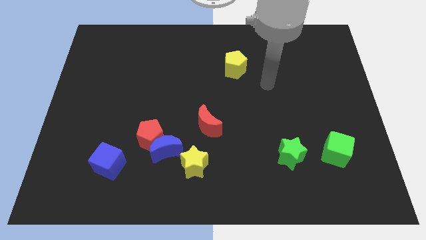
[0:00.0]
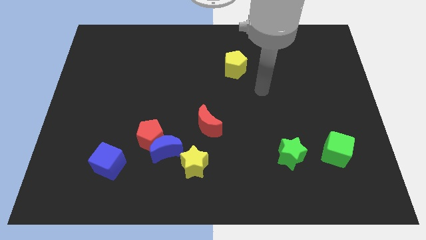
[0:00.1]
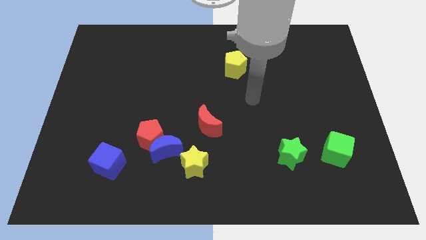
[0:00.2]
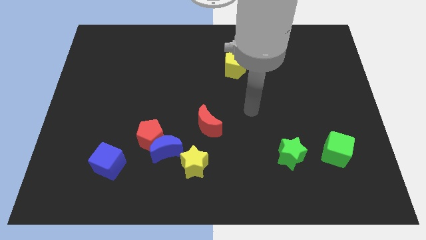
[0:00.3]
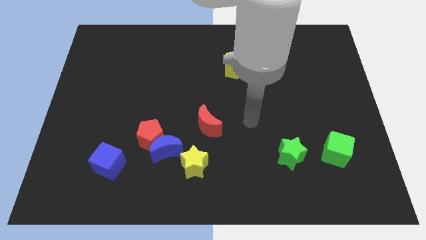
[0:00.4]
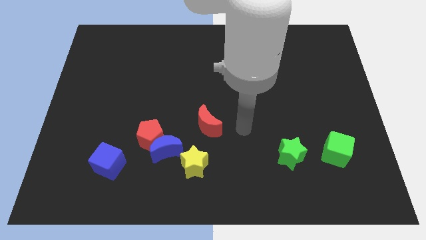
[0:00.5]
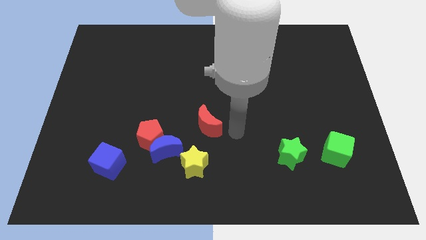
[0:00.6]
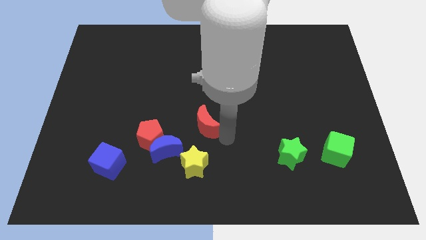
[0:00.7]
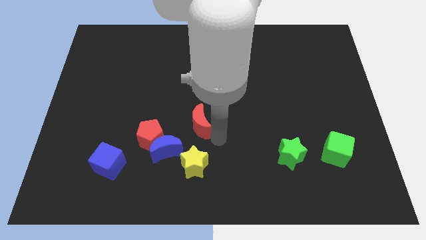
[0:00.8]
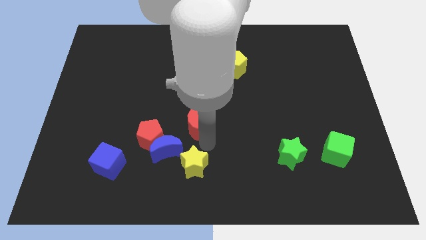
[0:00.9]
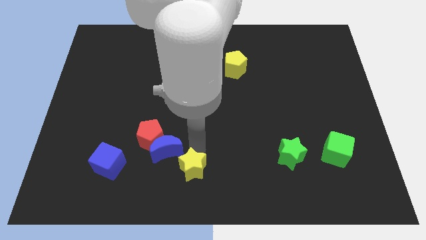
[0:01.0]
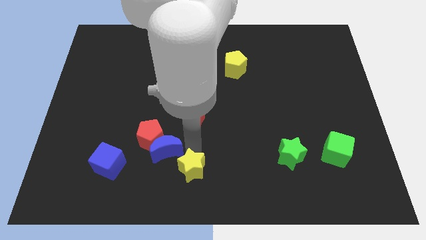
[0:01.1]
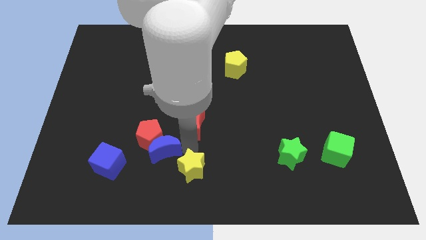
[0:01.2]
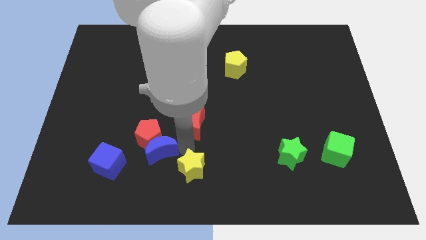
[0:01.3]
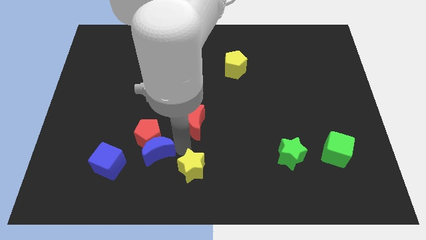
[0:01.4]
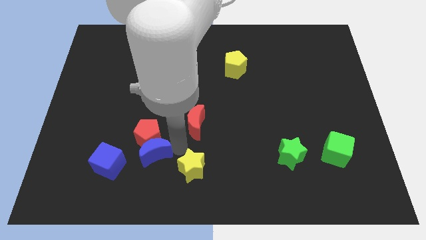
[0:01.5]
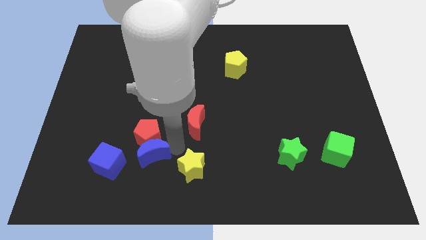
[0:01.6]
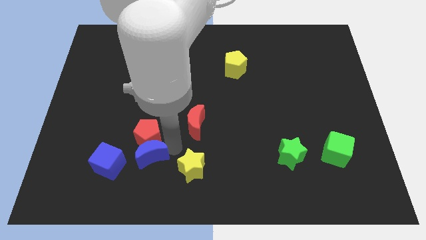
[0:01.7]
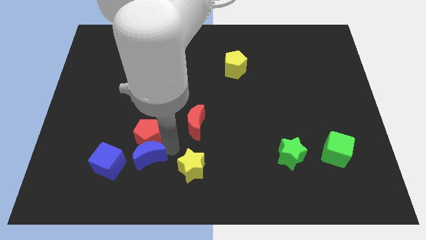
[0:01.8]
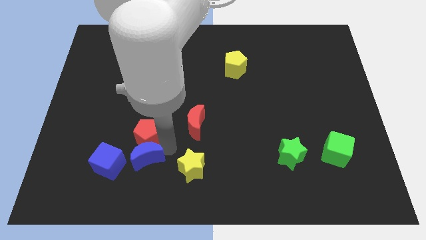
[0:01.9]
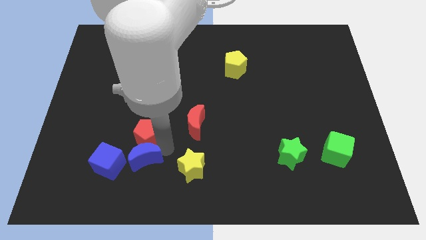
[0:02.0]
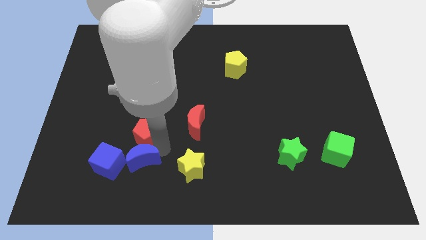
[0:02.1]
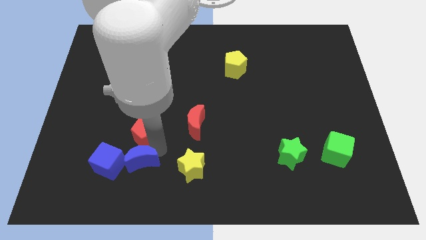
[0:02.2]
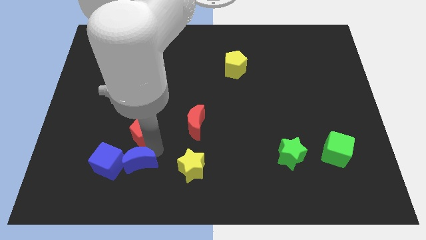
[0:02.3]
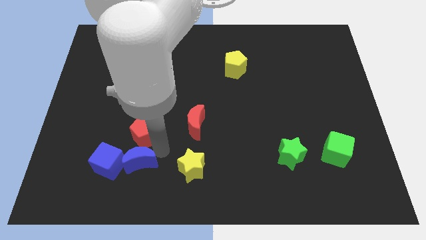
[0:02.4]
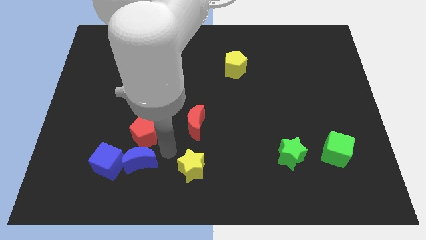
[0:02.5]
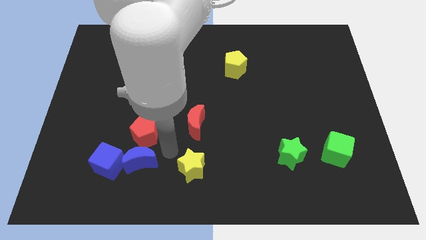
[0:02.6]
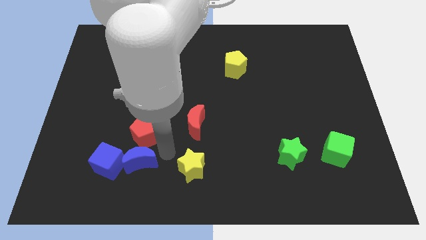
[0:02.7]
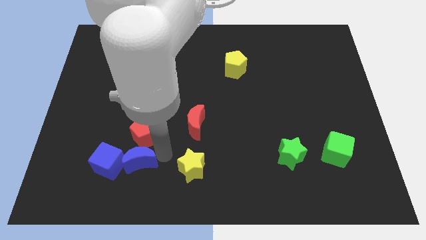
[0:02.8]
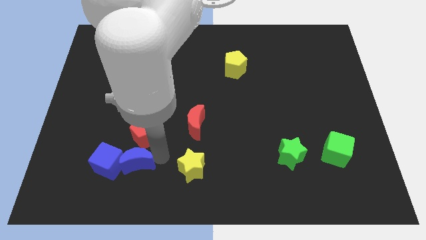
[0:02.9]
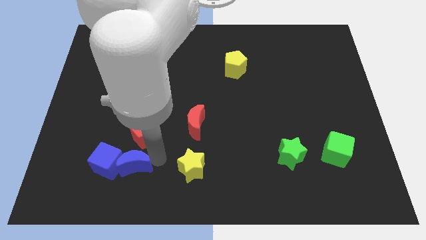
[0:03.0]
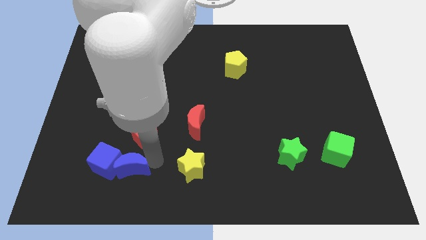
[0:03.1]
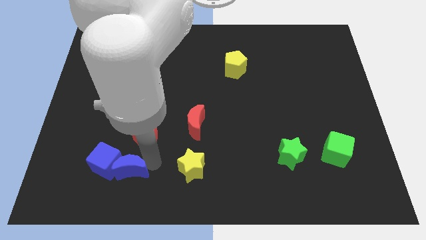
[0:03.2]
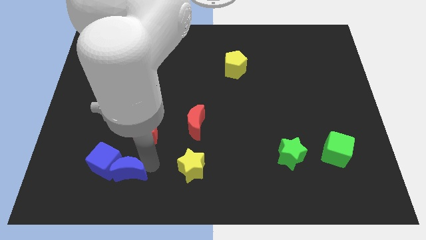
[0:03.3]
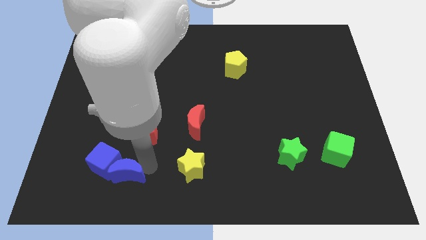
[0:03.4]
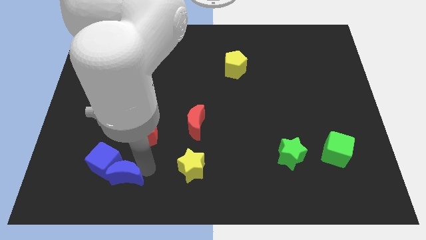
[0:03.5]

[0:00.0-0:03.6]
move the blue moon away from the red pentagon and yellow star

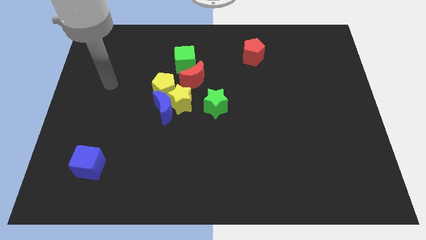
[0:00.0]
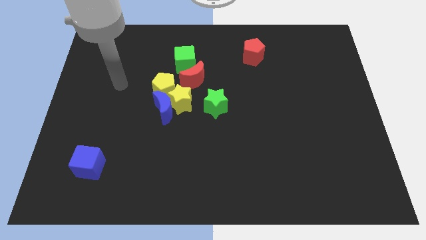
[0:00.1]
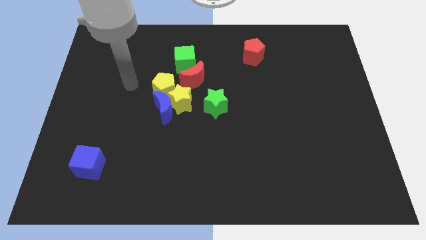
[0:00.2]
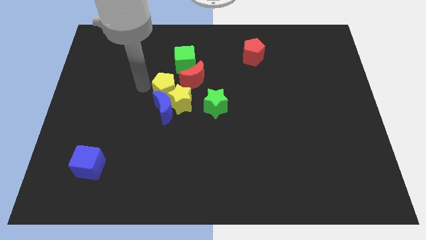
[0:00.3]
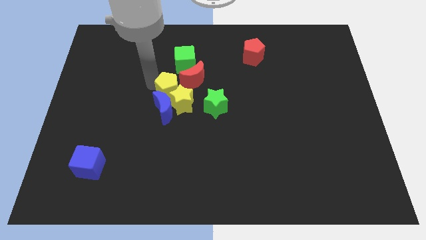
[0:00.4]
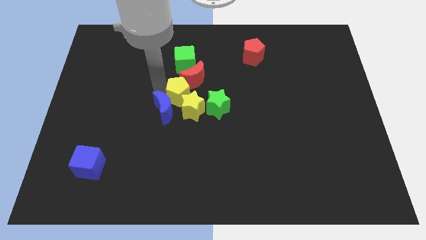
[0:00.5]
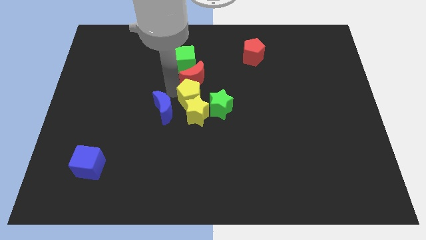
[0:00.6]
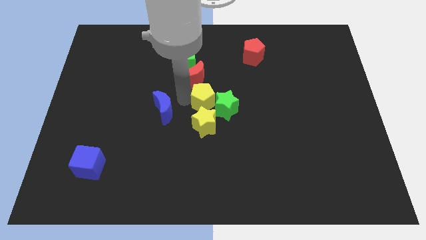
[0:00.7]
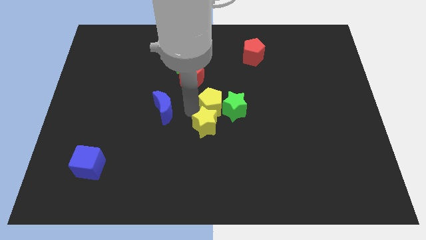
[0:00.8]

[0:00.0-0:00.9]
move the blue moon away from the yellow star and yellow pentagon

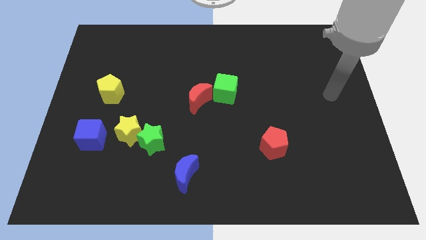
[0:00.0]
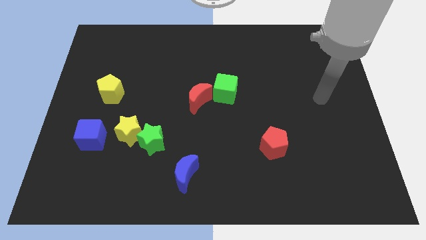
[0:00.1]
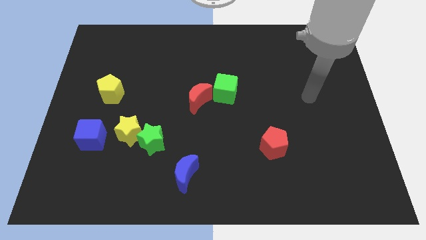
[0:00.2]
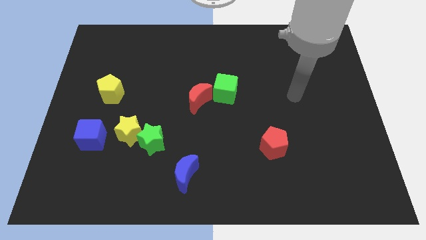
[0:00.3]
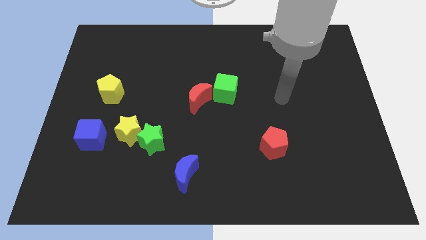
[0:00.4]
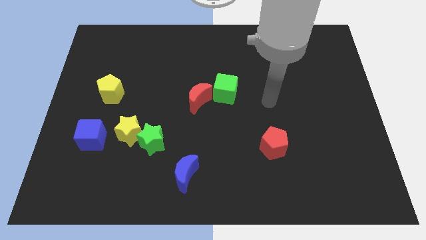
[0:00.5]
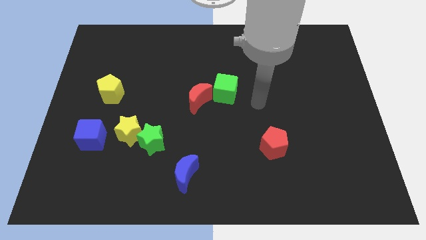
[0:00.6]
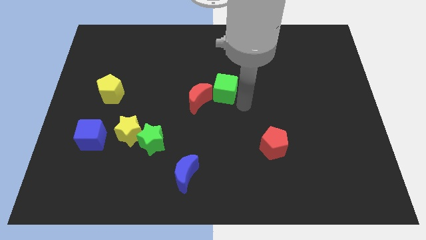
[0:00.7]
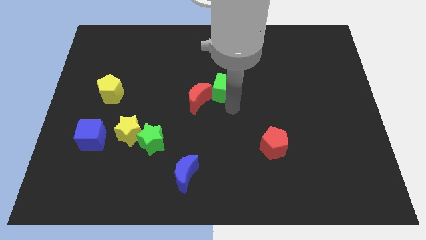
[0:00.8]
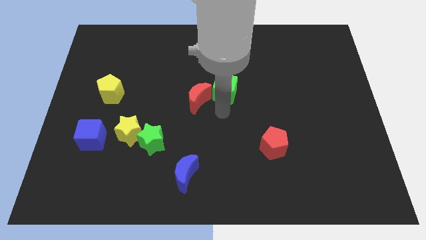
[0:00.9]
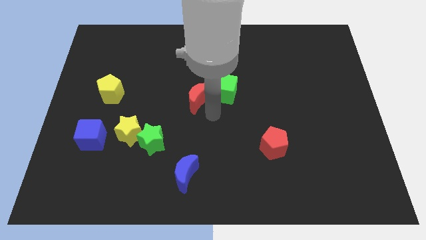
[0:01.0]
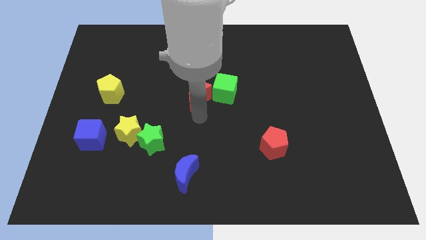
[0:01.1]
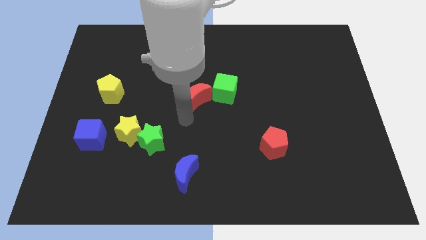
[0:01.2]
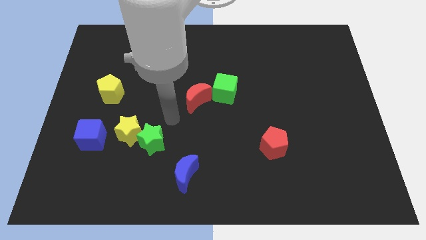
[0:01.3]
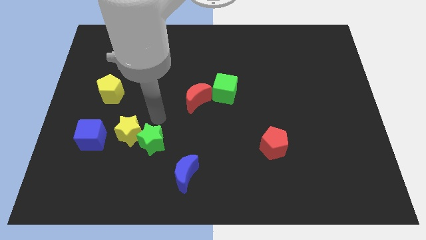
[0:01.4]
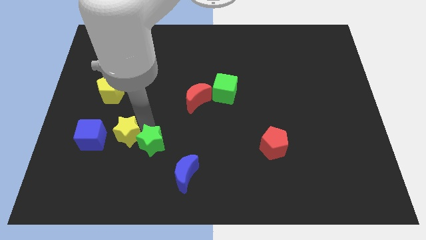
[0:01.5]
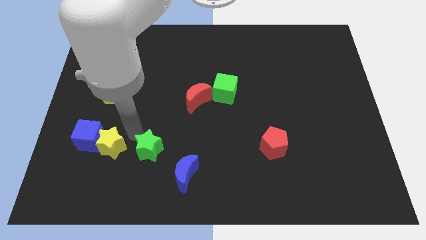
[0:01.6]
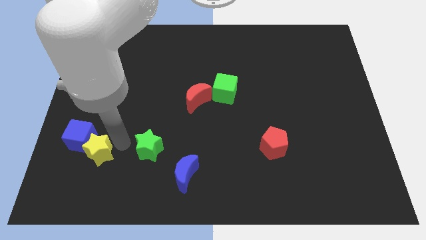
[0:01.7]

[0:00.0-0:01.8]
pull the green star apart from the yellow star

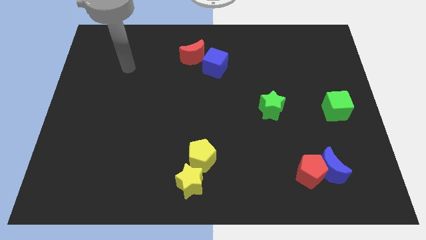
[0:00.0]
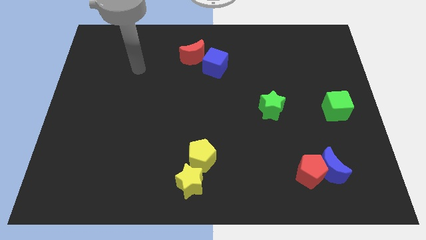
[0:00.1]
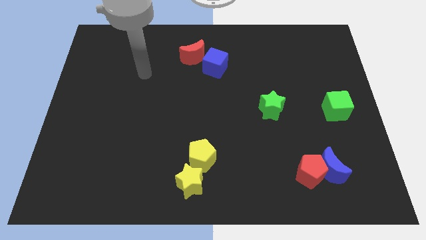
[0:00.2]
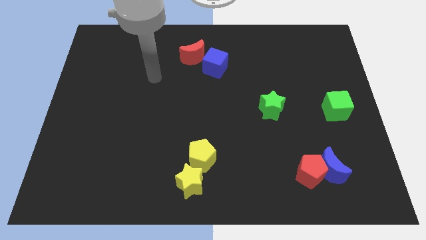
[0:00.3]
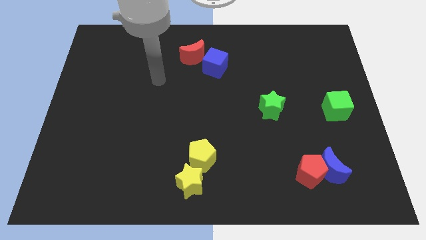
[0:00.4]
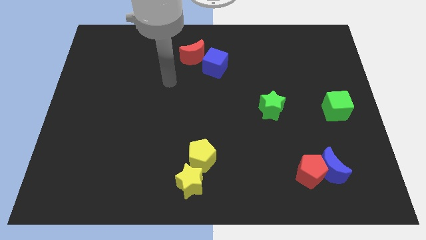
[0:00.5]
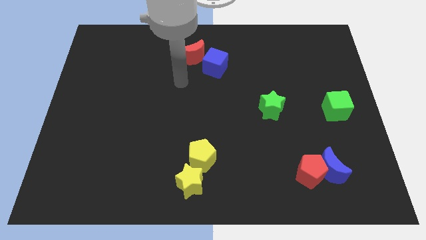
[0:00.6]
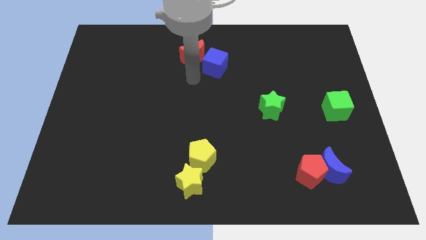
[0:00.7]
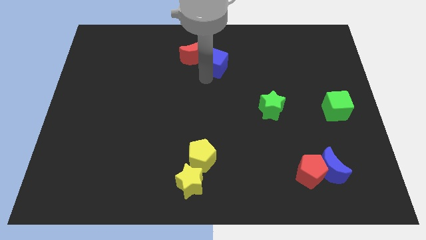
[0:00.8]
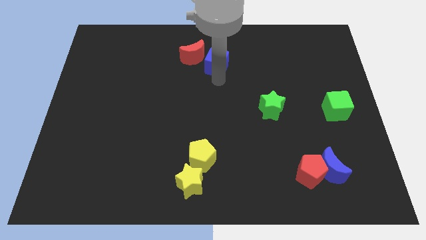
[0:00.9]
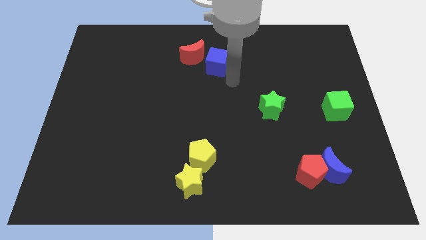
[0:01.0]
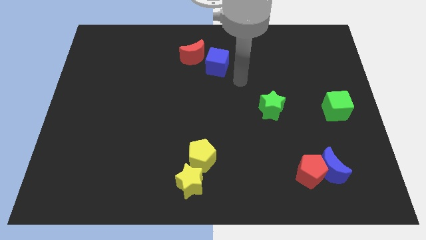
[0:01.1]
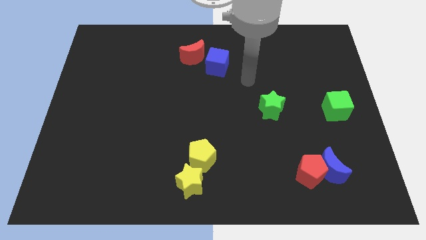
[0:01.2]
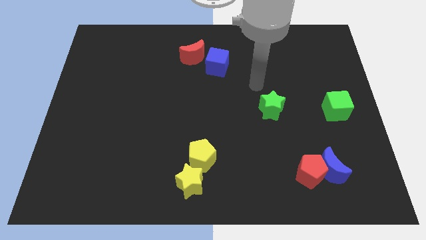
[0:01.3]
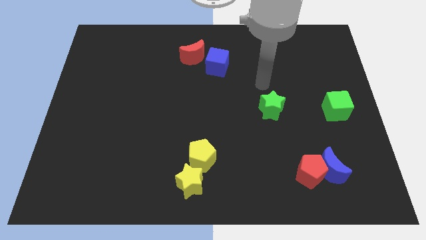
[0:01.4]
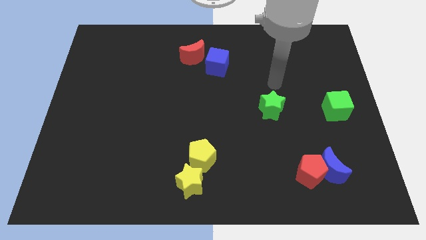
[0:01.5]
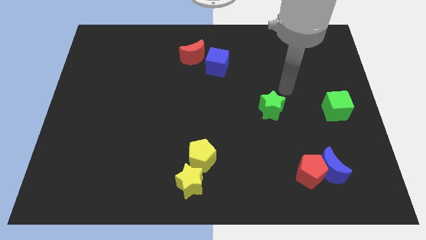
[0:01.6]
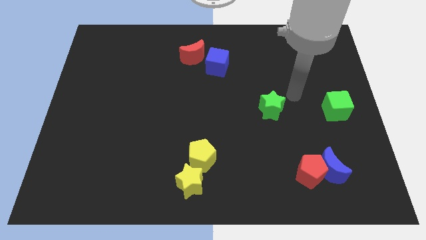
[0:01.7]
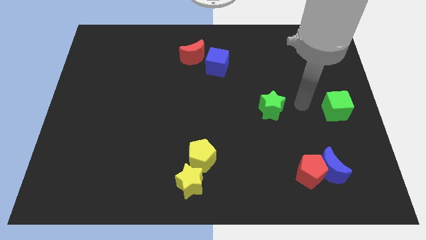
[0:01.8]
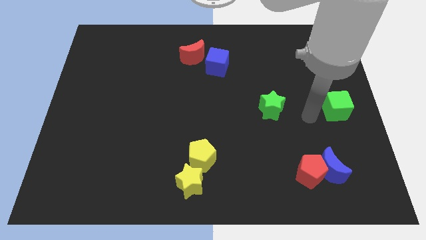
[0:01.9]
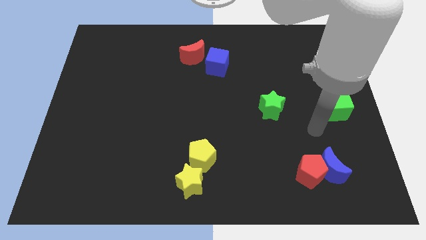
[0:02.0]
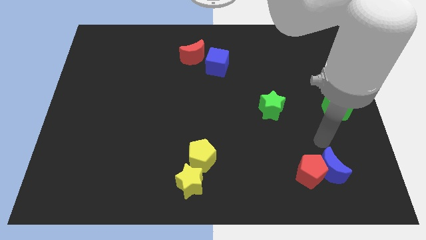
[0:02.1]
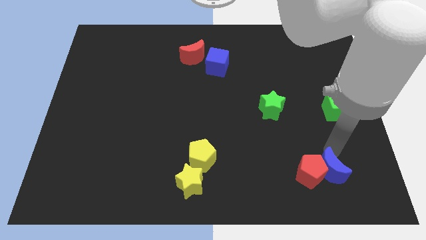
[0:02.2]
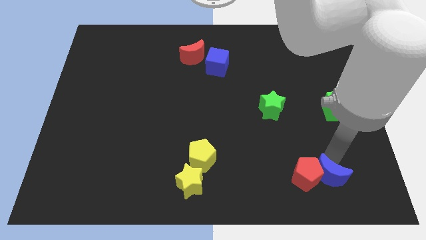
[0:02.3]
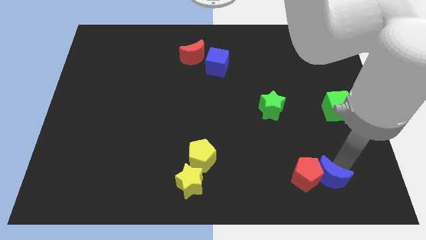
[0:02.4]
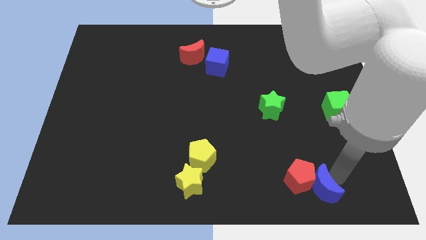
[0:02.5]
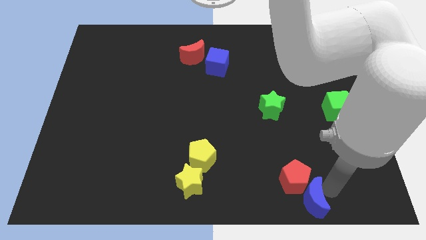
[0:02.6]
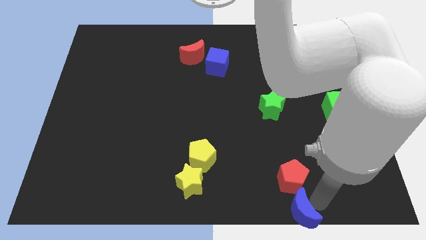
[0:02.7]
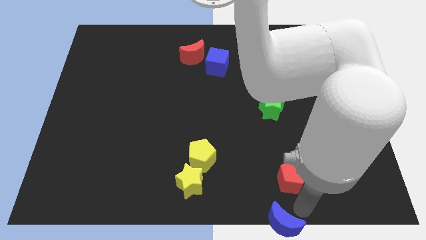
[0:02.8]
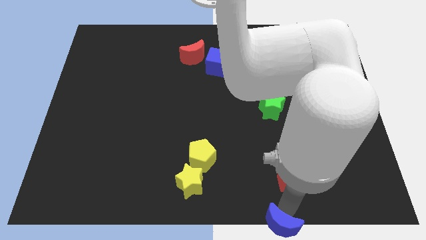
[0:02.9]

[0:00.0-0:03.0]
move the red pentagon away from the blue moon

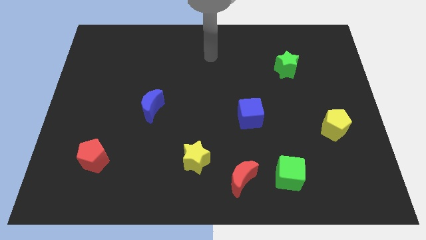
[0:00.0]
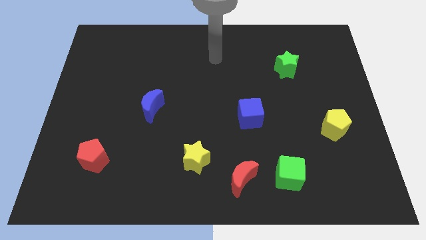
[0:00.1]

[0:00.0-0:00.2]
move the red moon away from the green cube
